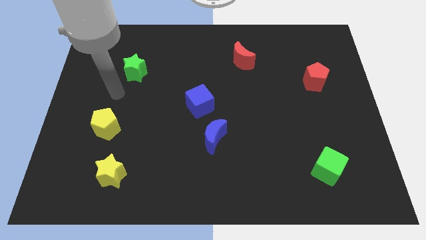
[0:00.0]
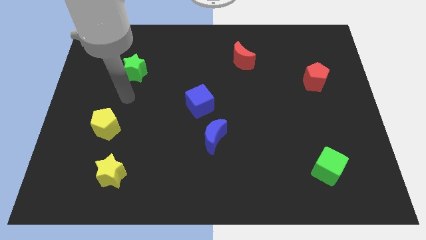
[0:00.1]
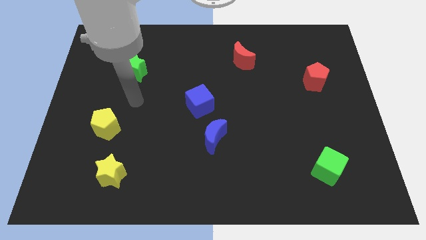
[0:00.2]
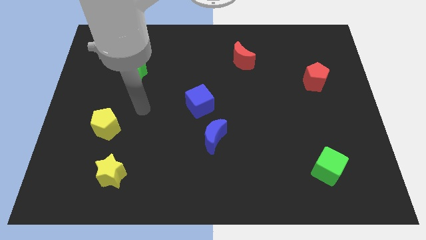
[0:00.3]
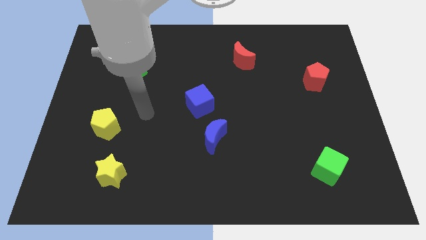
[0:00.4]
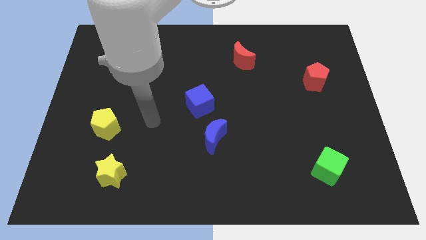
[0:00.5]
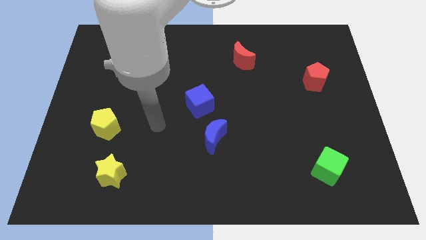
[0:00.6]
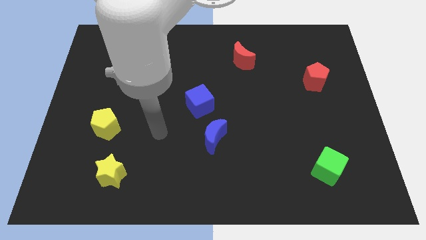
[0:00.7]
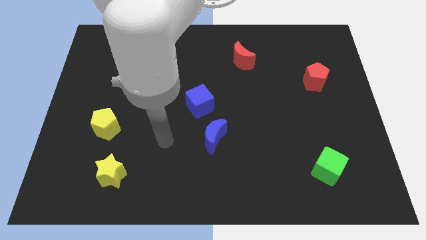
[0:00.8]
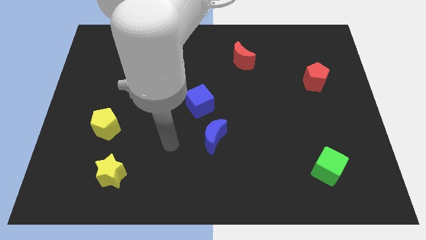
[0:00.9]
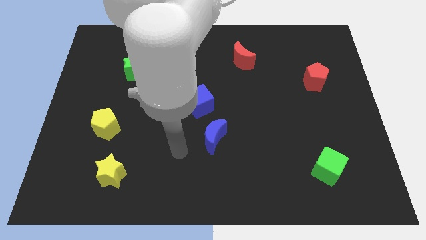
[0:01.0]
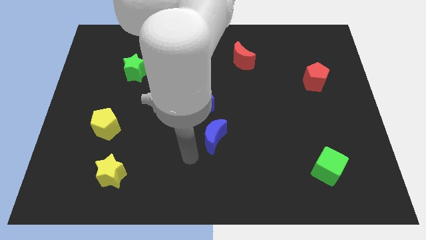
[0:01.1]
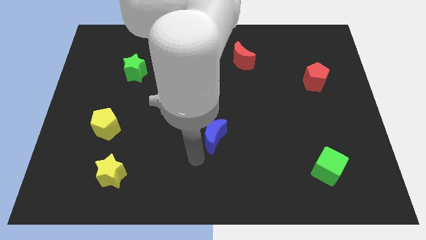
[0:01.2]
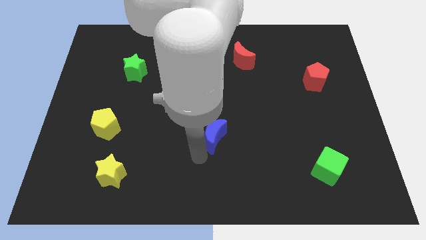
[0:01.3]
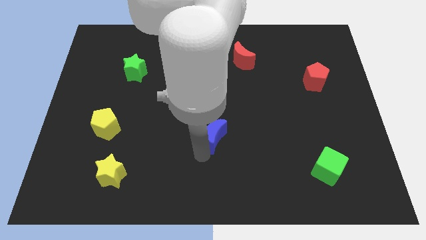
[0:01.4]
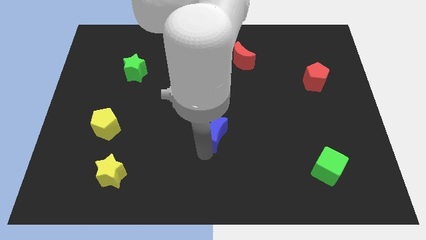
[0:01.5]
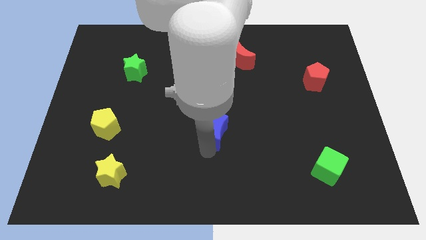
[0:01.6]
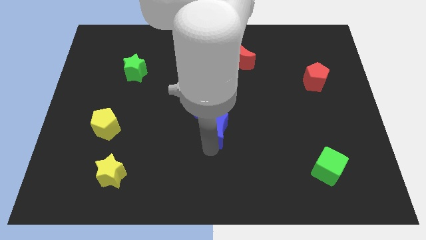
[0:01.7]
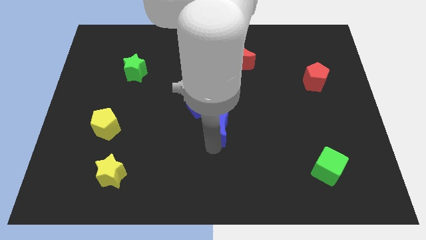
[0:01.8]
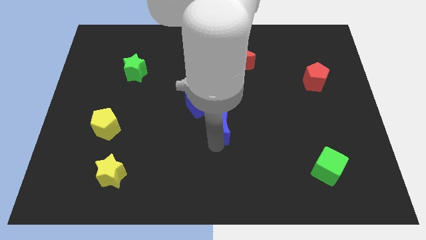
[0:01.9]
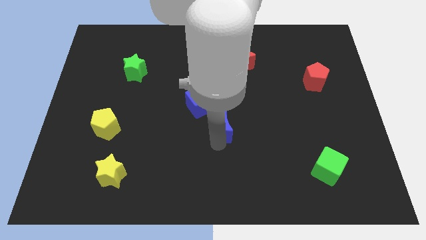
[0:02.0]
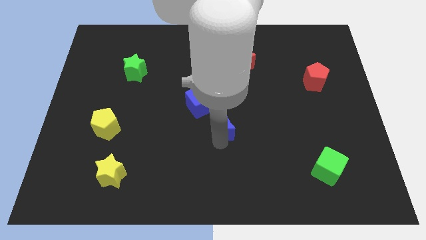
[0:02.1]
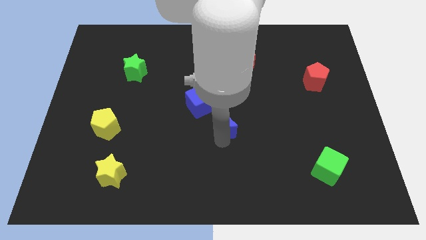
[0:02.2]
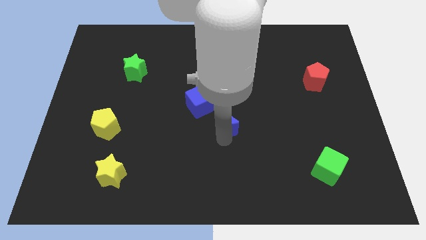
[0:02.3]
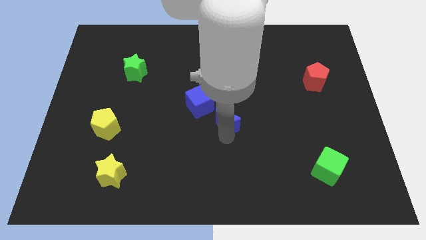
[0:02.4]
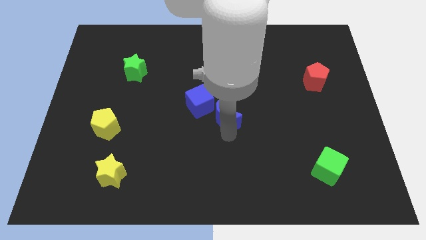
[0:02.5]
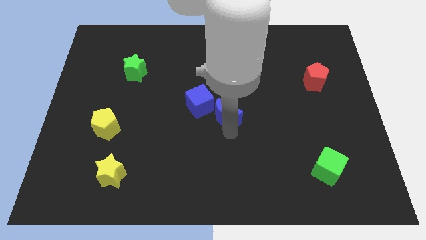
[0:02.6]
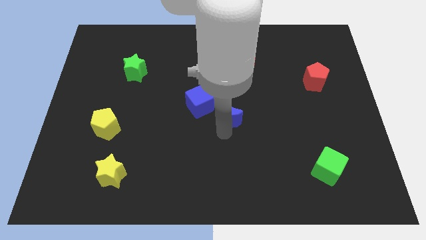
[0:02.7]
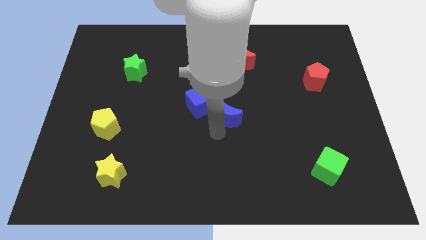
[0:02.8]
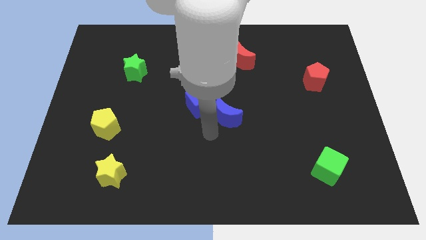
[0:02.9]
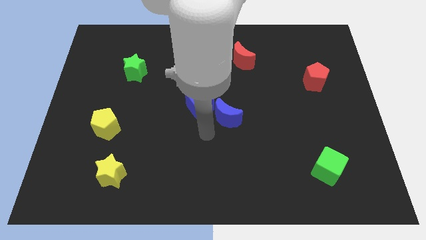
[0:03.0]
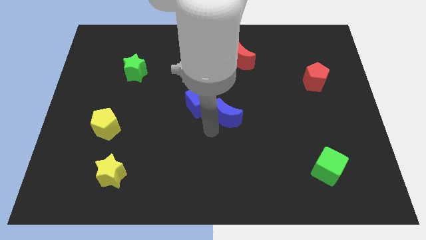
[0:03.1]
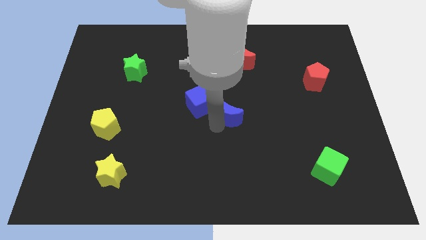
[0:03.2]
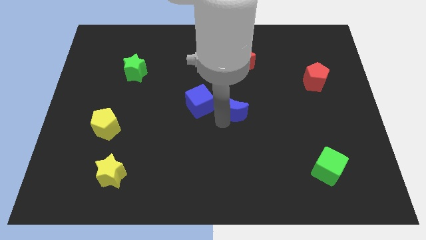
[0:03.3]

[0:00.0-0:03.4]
slightly slide the blue moon diagonally up and to the right

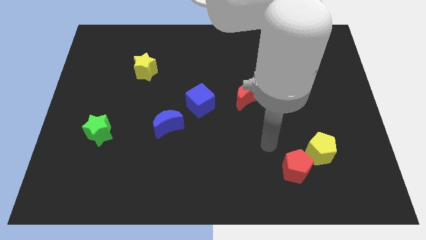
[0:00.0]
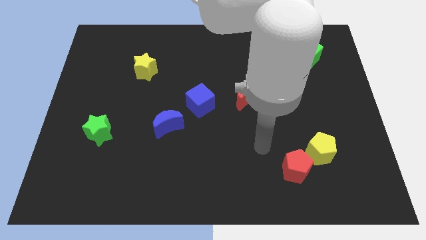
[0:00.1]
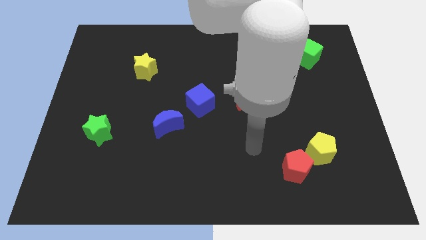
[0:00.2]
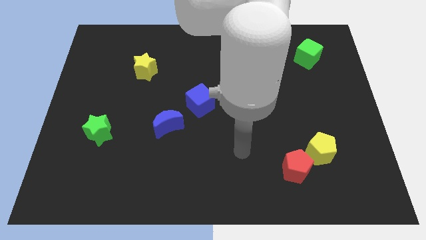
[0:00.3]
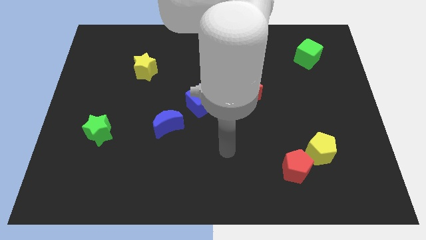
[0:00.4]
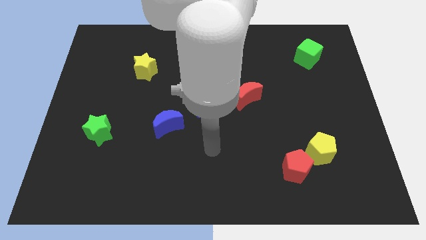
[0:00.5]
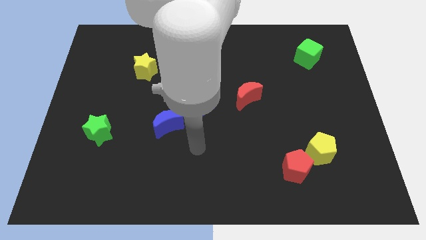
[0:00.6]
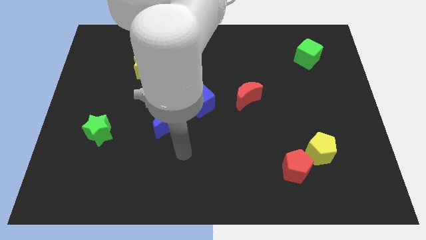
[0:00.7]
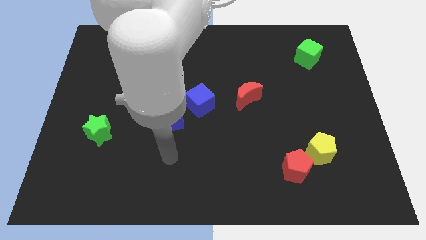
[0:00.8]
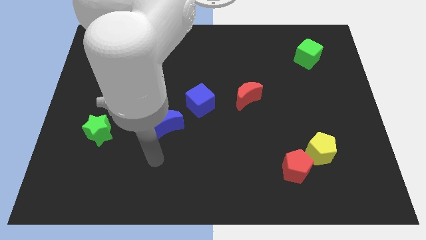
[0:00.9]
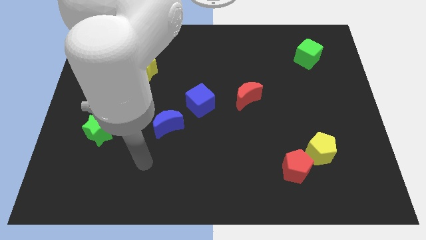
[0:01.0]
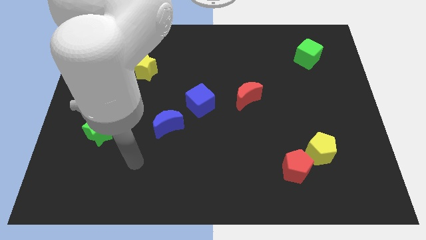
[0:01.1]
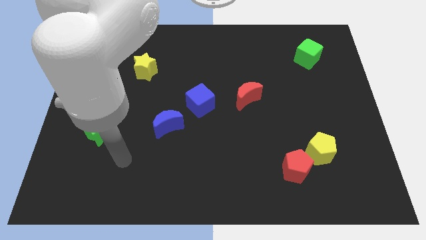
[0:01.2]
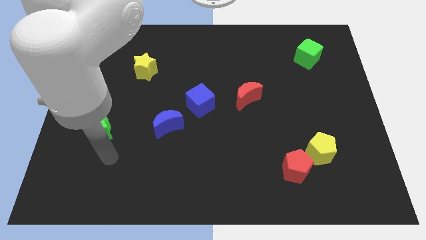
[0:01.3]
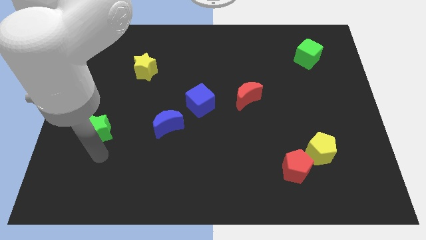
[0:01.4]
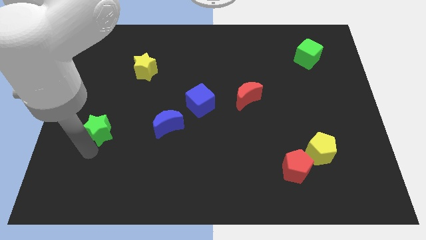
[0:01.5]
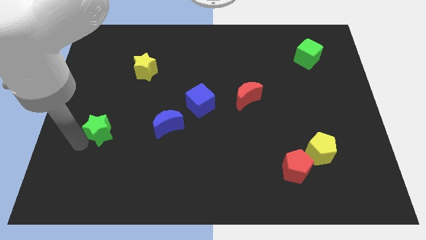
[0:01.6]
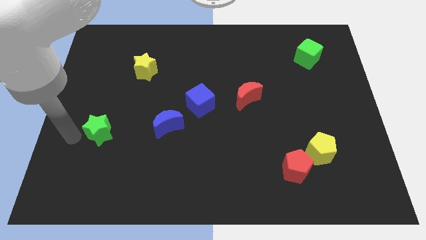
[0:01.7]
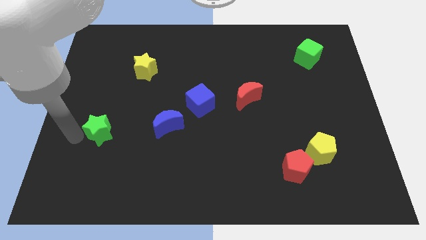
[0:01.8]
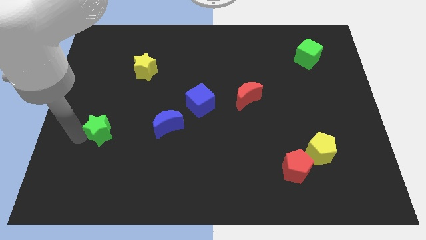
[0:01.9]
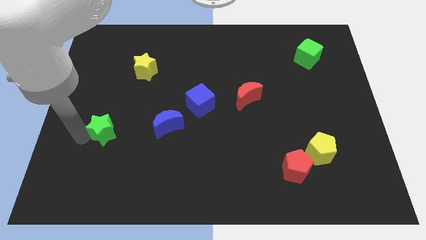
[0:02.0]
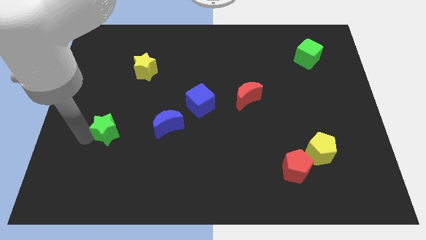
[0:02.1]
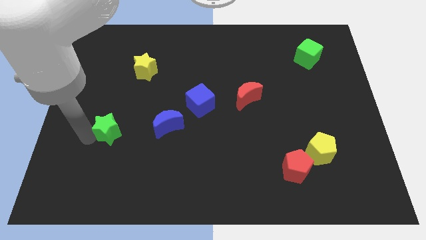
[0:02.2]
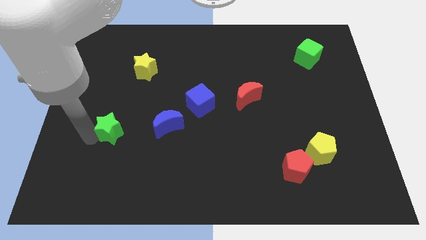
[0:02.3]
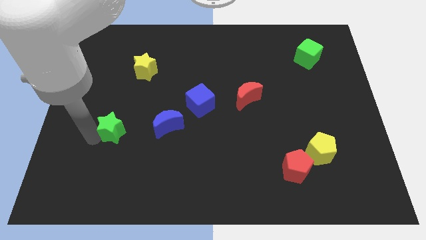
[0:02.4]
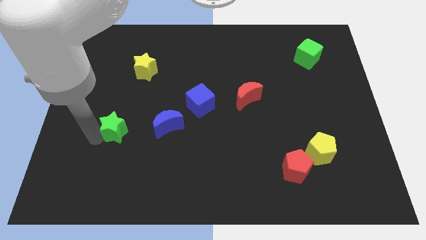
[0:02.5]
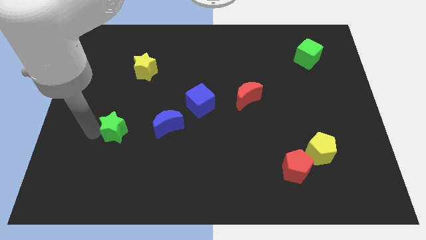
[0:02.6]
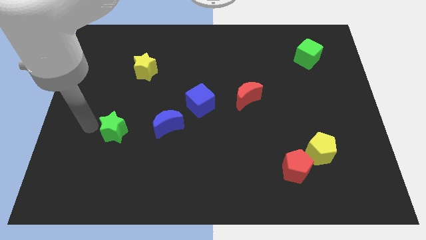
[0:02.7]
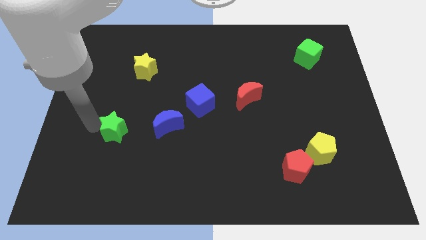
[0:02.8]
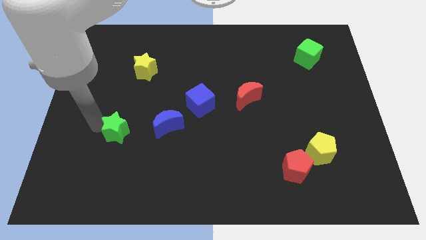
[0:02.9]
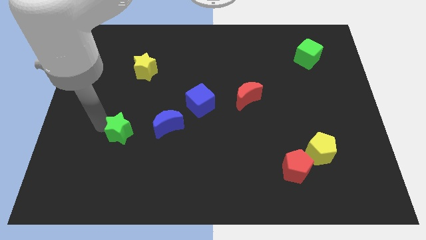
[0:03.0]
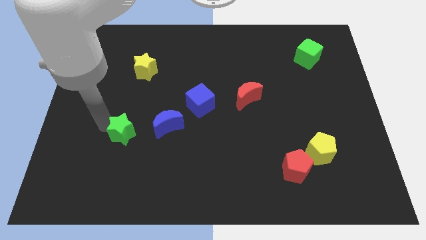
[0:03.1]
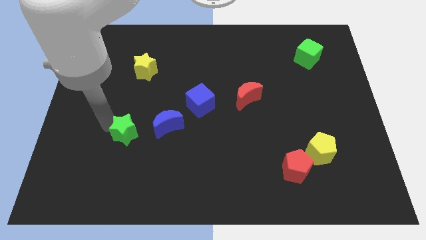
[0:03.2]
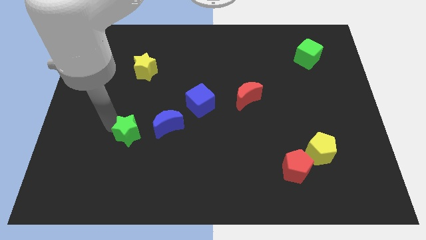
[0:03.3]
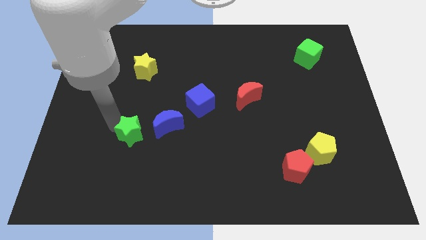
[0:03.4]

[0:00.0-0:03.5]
push the green star slightly to the right

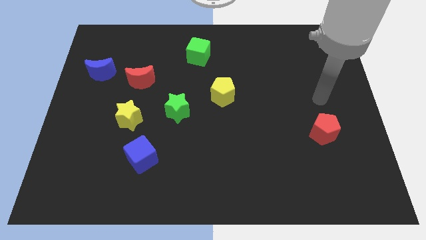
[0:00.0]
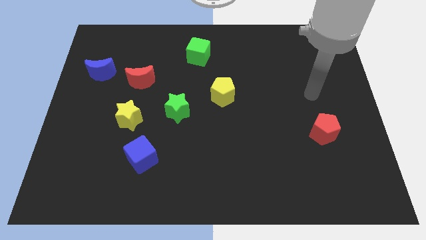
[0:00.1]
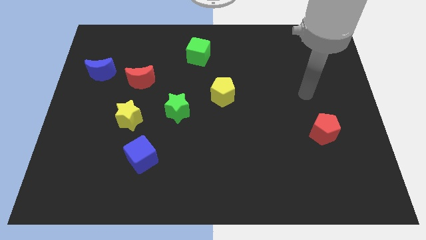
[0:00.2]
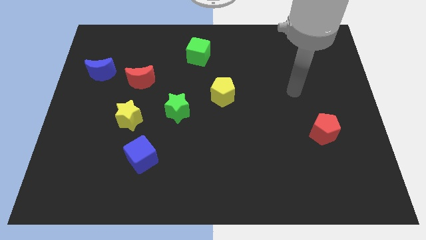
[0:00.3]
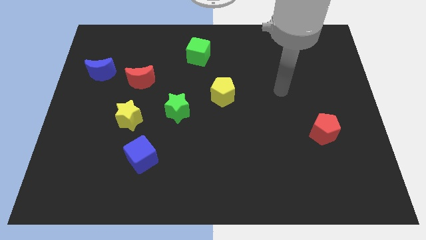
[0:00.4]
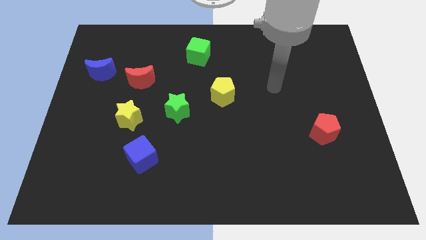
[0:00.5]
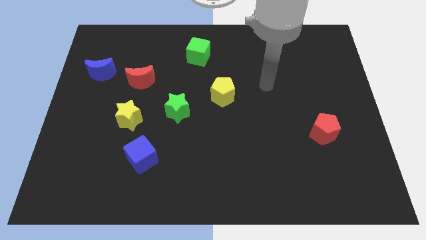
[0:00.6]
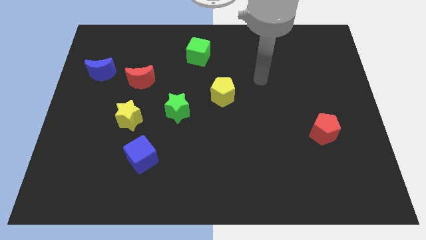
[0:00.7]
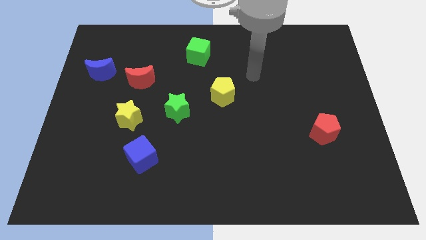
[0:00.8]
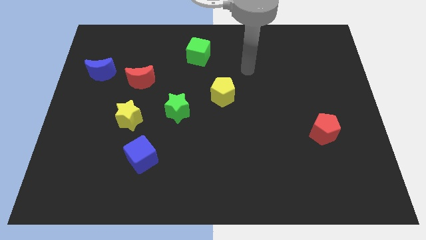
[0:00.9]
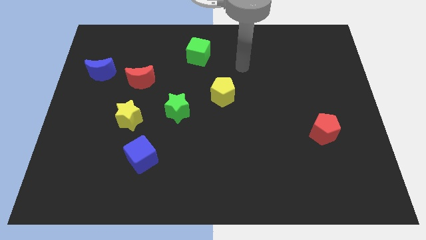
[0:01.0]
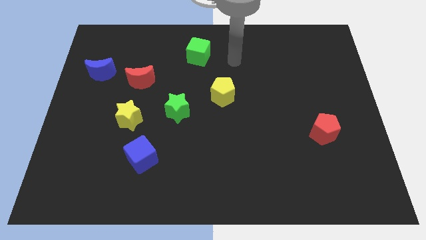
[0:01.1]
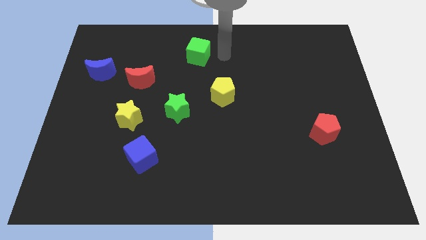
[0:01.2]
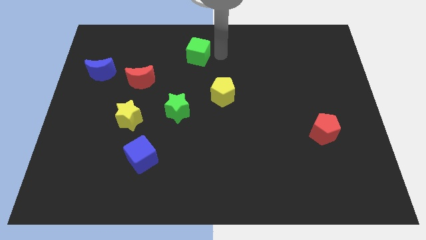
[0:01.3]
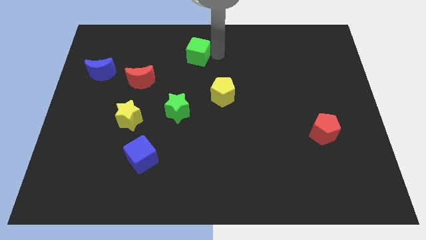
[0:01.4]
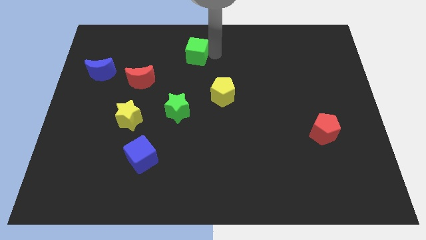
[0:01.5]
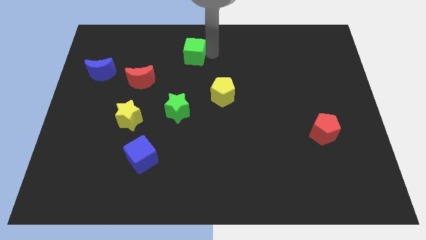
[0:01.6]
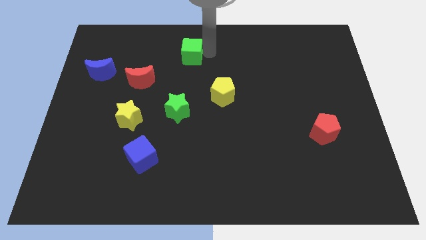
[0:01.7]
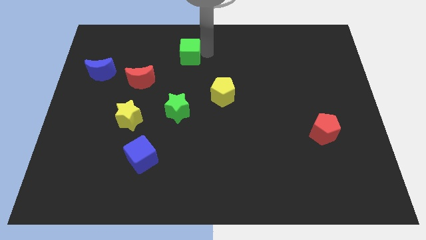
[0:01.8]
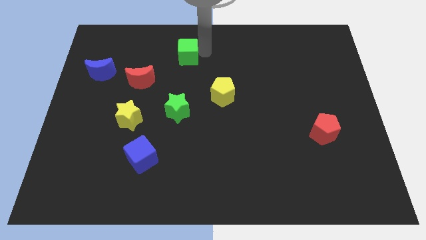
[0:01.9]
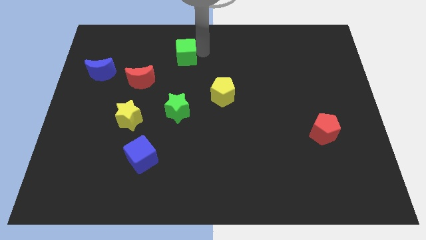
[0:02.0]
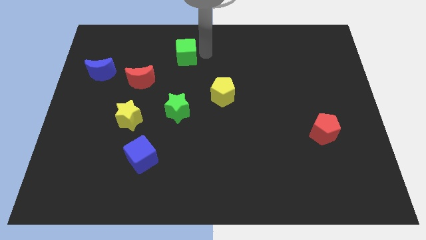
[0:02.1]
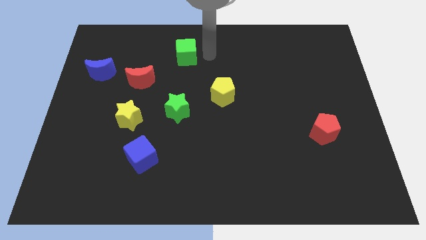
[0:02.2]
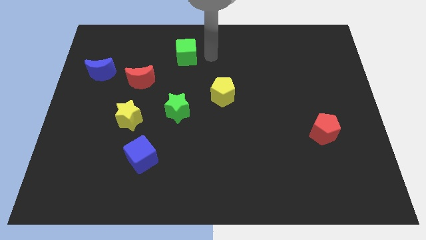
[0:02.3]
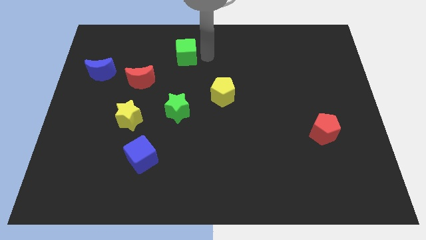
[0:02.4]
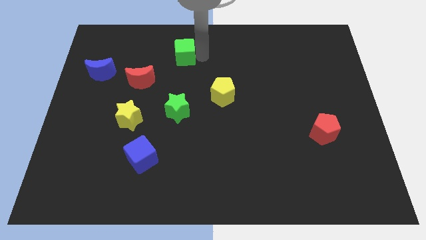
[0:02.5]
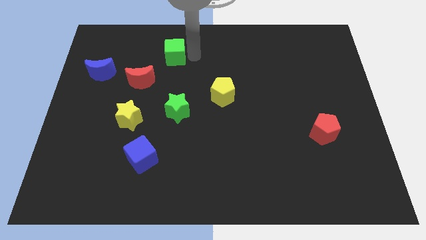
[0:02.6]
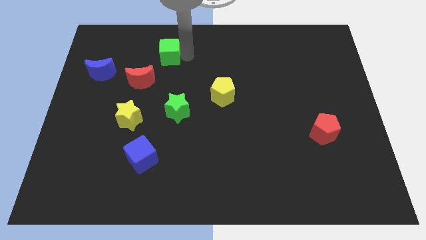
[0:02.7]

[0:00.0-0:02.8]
slightly push the green cube left
